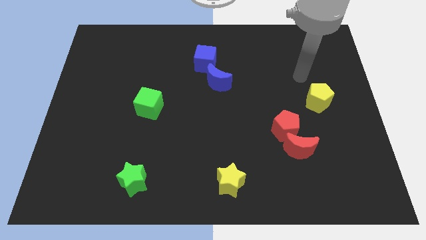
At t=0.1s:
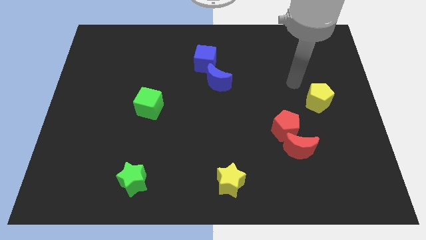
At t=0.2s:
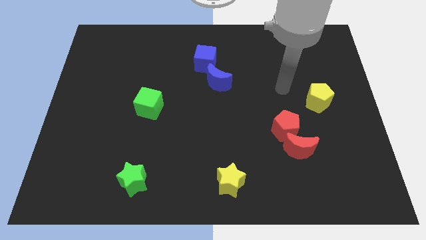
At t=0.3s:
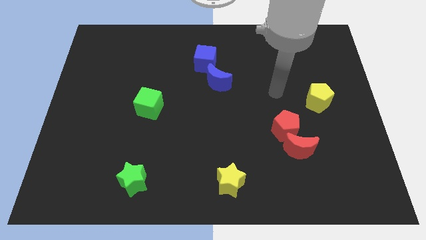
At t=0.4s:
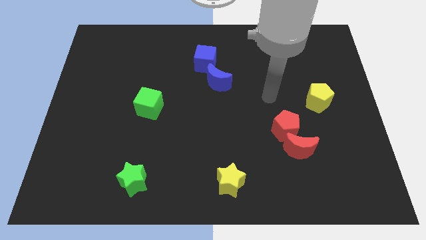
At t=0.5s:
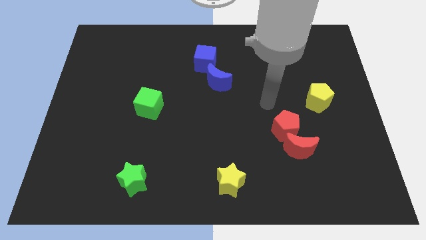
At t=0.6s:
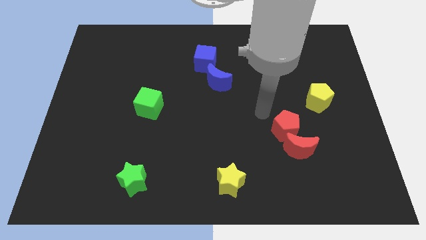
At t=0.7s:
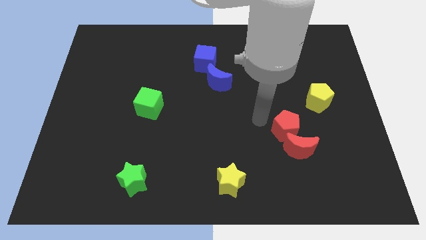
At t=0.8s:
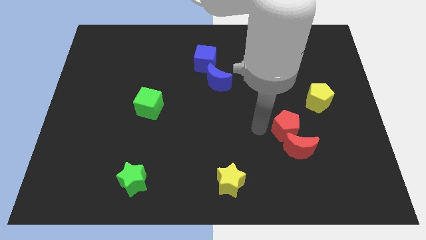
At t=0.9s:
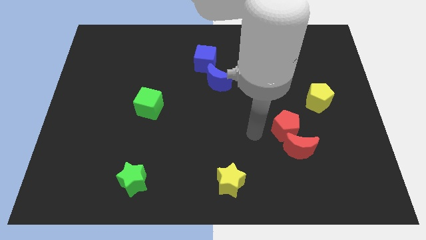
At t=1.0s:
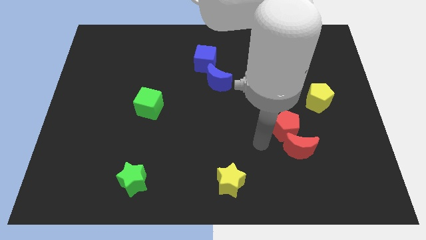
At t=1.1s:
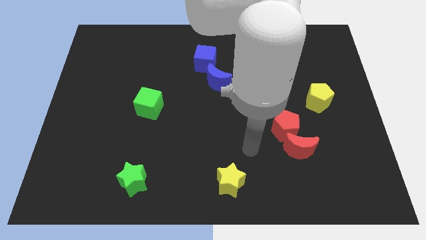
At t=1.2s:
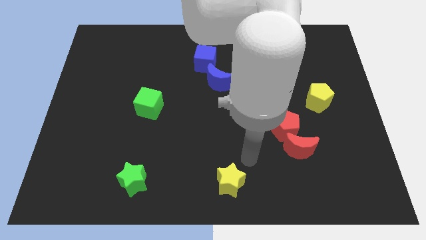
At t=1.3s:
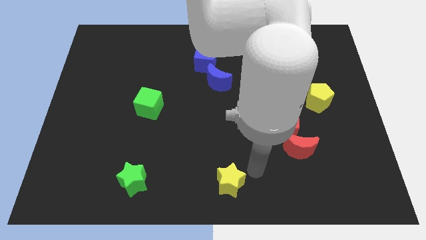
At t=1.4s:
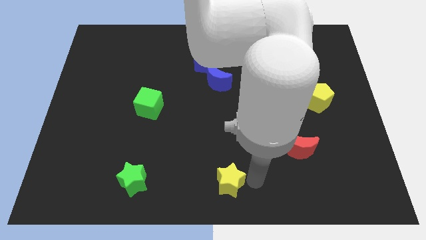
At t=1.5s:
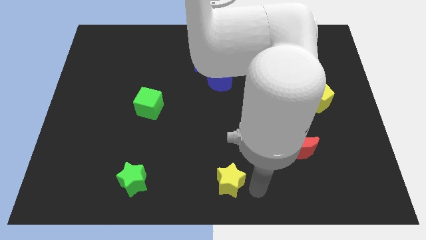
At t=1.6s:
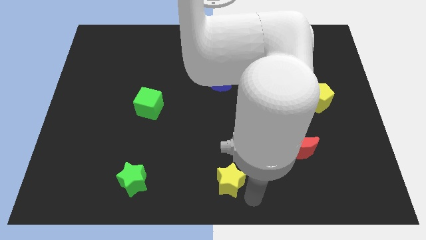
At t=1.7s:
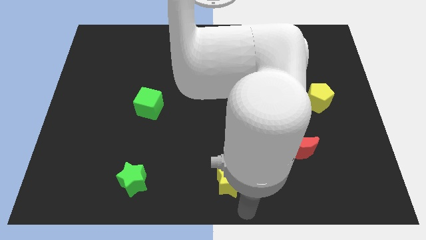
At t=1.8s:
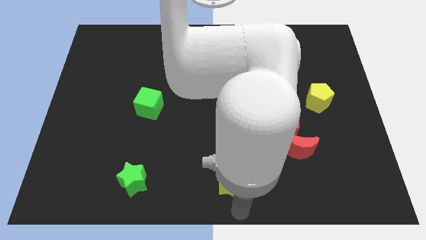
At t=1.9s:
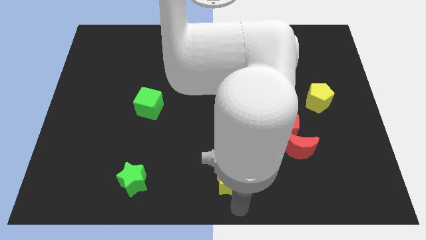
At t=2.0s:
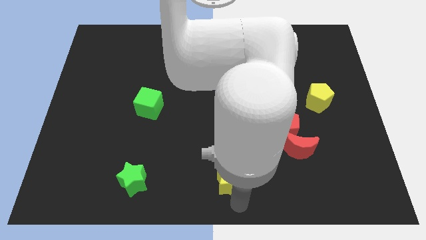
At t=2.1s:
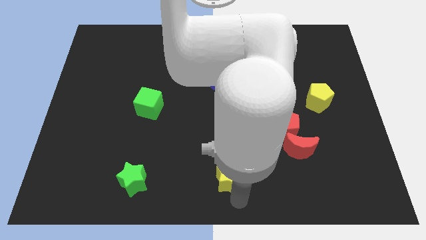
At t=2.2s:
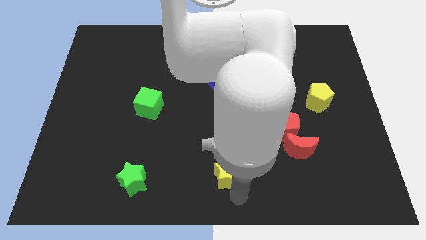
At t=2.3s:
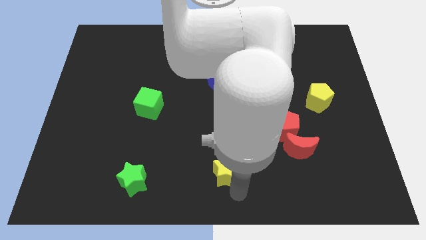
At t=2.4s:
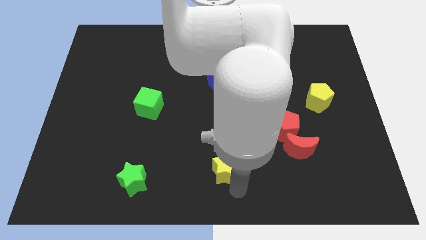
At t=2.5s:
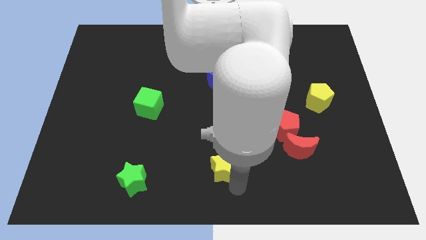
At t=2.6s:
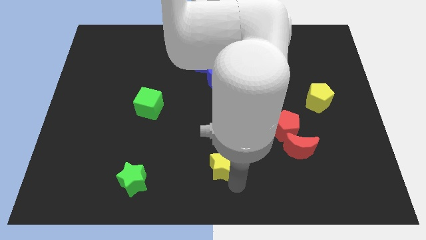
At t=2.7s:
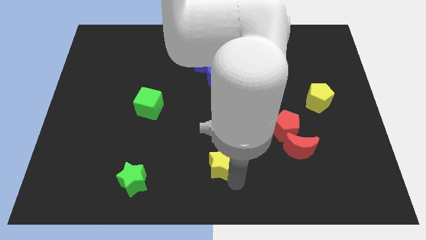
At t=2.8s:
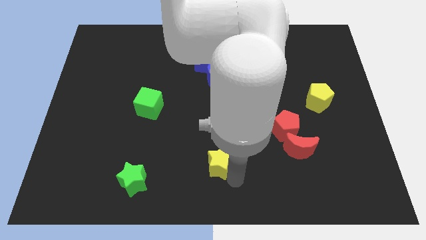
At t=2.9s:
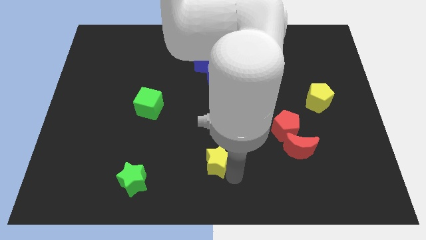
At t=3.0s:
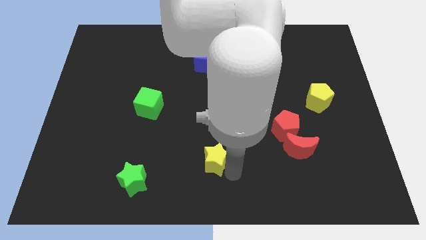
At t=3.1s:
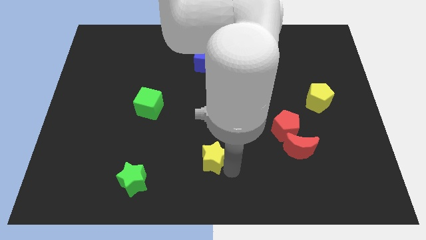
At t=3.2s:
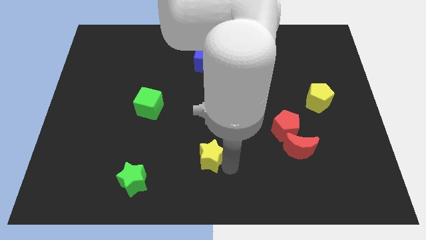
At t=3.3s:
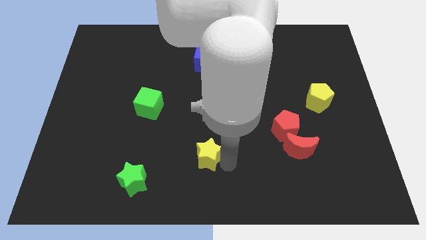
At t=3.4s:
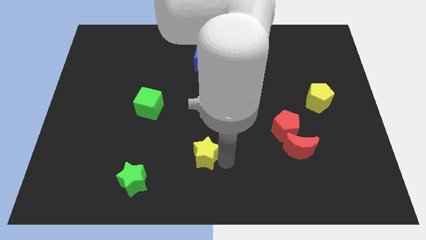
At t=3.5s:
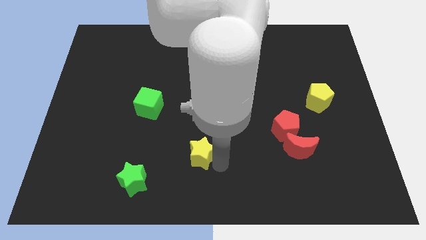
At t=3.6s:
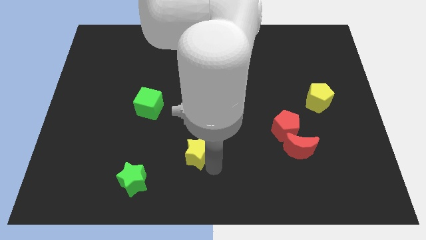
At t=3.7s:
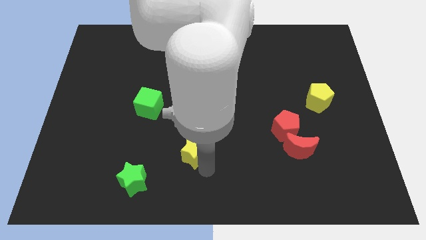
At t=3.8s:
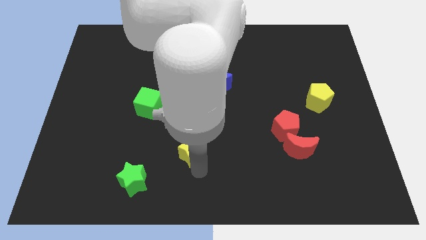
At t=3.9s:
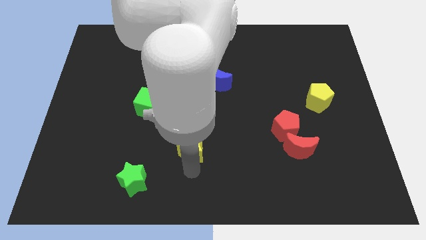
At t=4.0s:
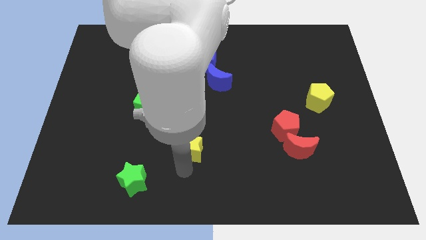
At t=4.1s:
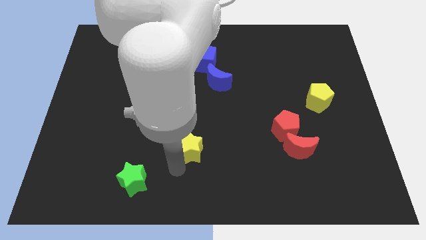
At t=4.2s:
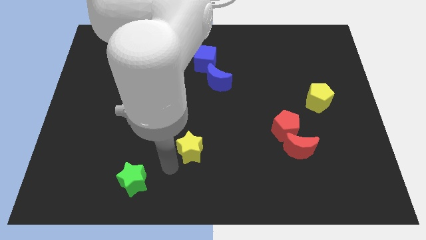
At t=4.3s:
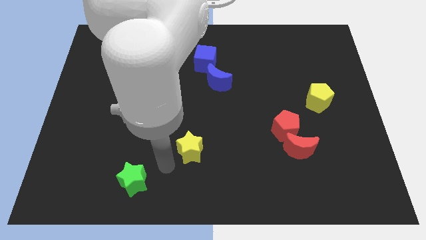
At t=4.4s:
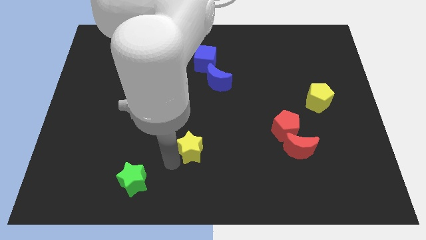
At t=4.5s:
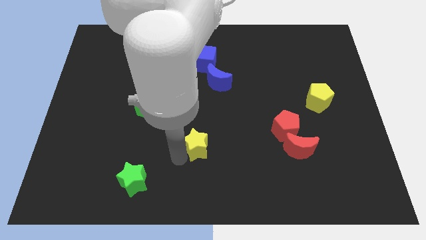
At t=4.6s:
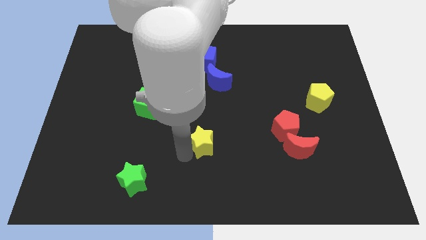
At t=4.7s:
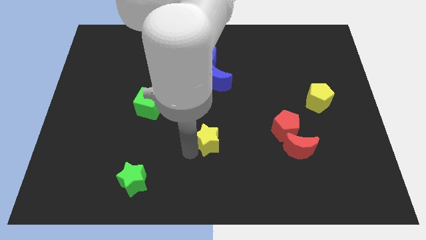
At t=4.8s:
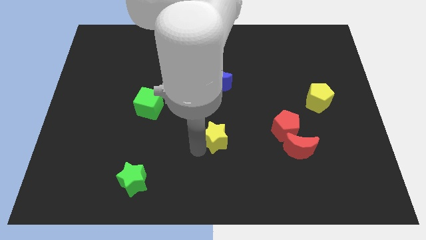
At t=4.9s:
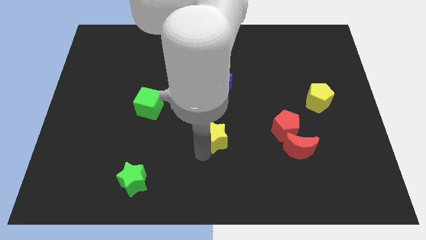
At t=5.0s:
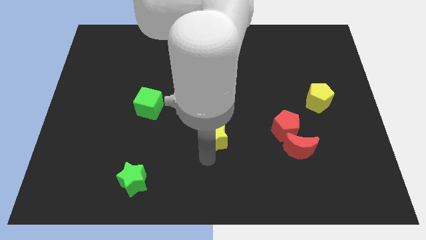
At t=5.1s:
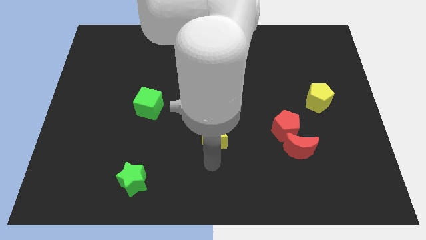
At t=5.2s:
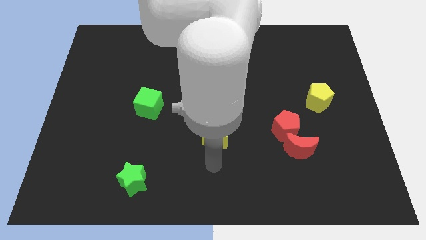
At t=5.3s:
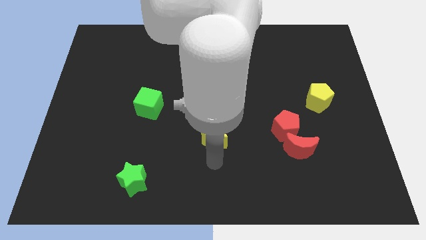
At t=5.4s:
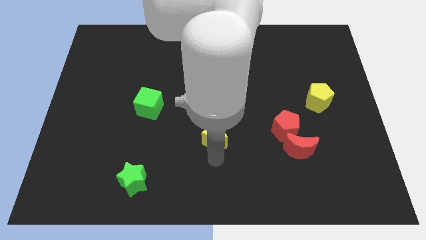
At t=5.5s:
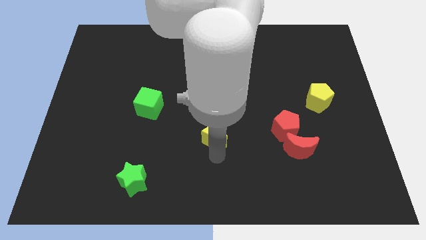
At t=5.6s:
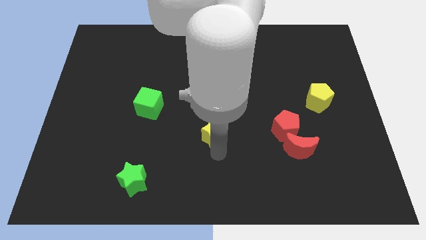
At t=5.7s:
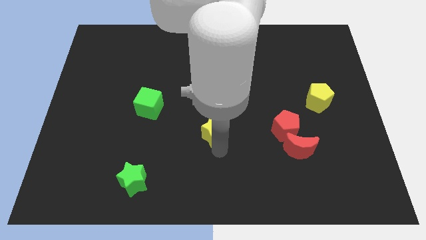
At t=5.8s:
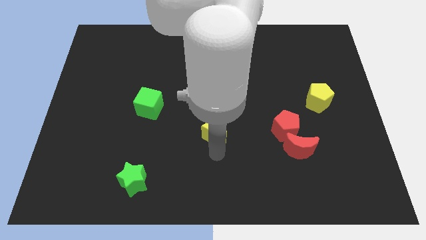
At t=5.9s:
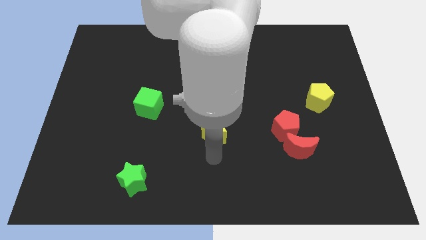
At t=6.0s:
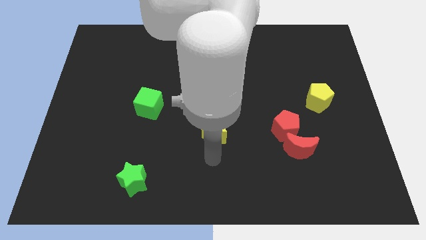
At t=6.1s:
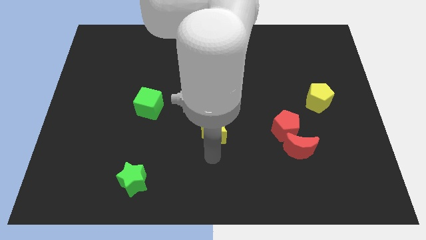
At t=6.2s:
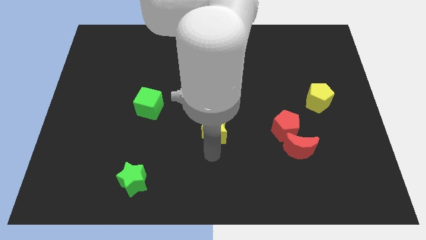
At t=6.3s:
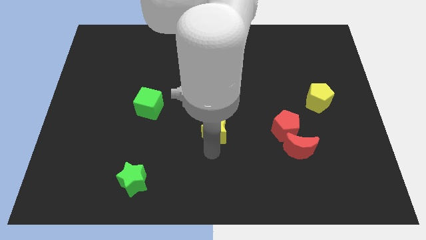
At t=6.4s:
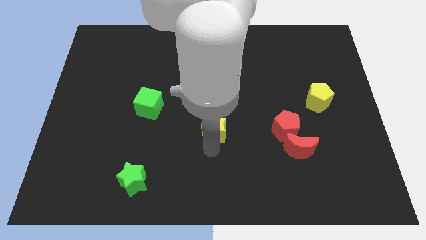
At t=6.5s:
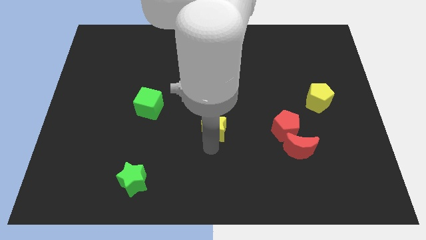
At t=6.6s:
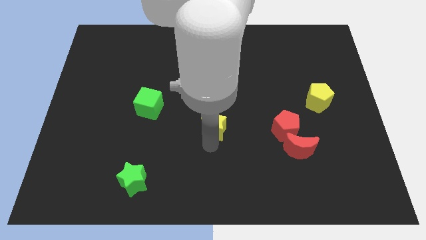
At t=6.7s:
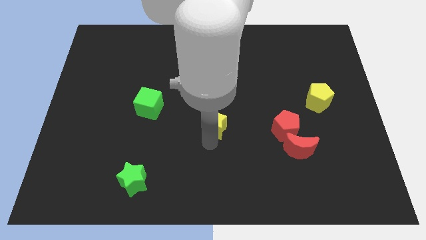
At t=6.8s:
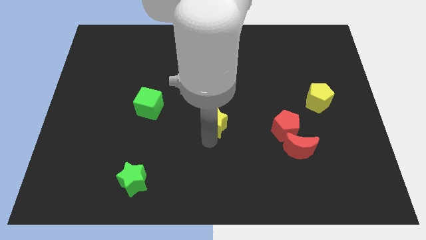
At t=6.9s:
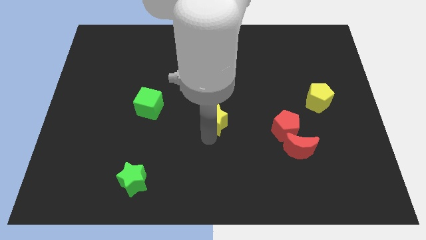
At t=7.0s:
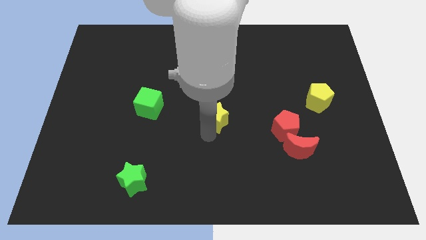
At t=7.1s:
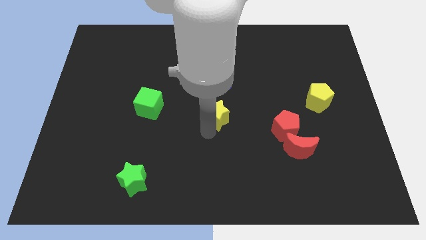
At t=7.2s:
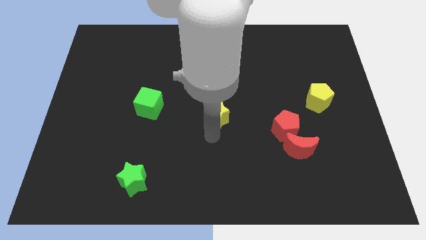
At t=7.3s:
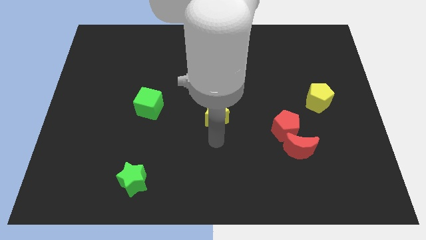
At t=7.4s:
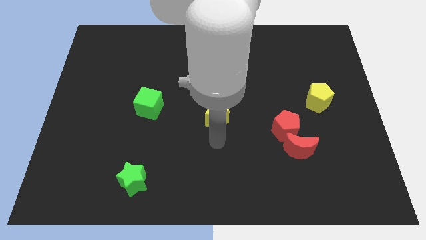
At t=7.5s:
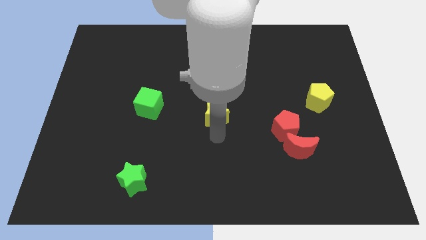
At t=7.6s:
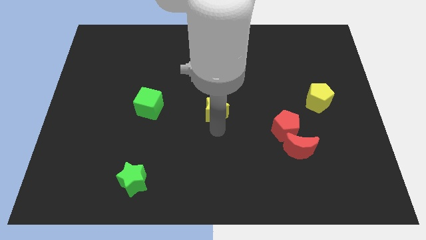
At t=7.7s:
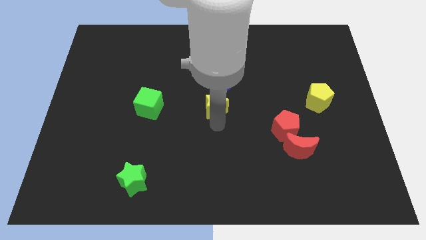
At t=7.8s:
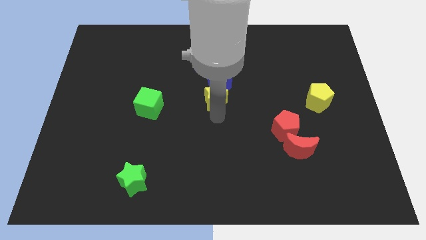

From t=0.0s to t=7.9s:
push the yellow star to the blue moon
